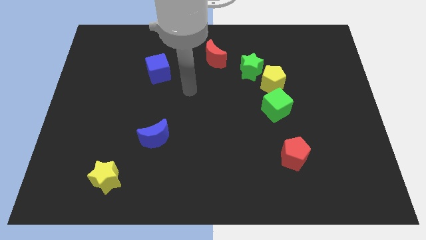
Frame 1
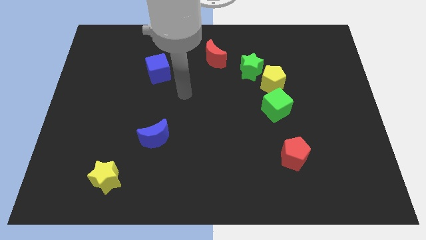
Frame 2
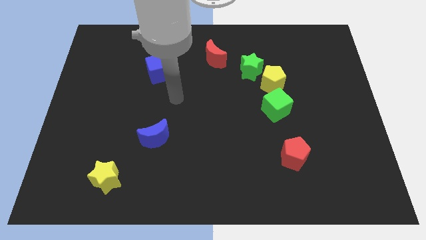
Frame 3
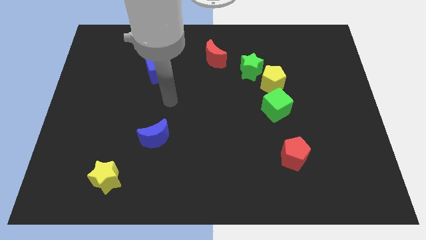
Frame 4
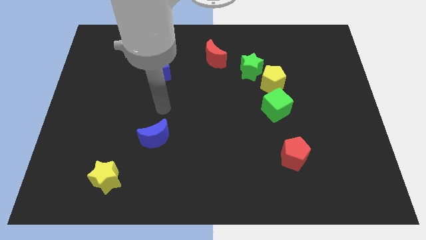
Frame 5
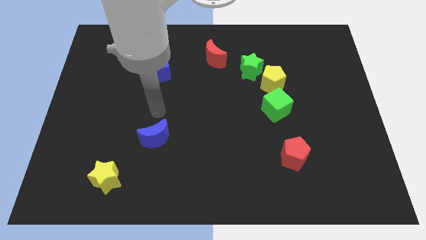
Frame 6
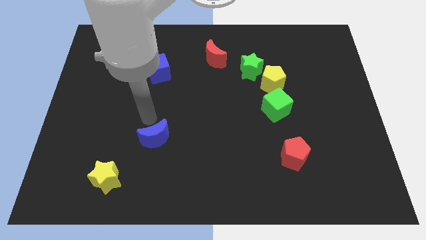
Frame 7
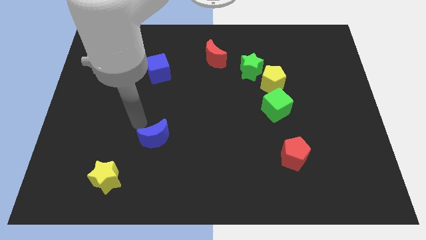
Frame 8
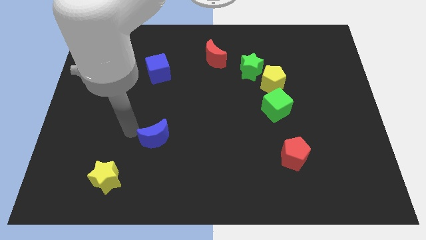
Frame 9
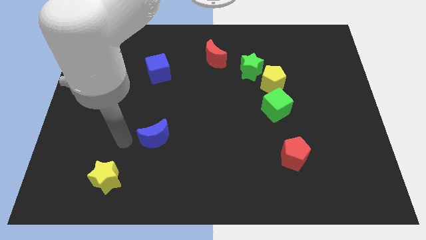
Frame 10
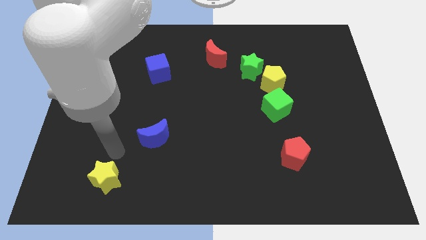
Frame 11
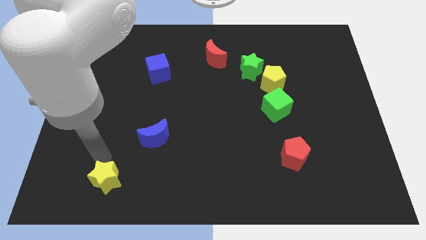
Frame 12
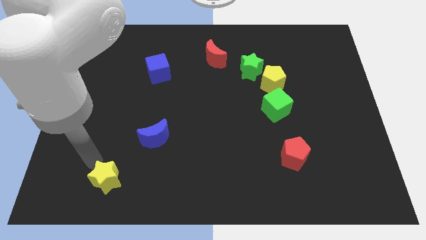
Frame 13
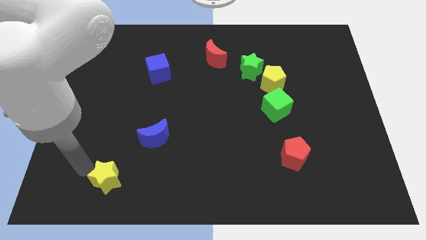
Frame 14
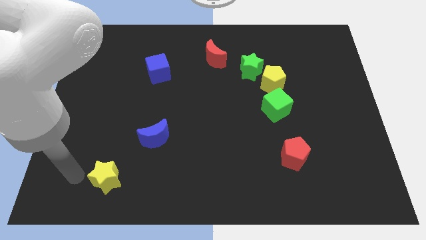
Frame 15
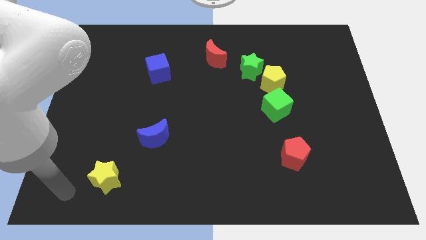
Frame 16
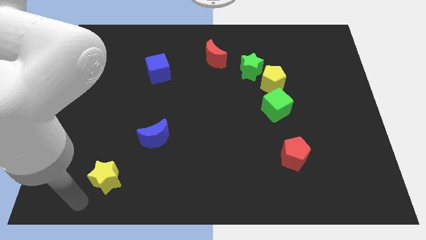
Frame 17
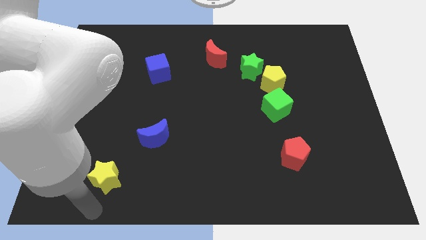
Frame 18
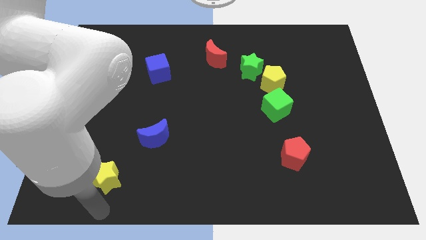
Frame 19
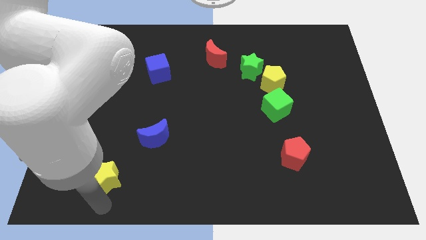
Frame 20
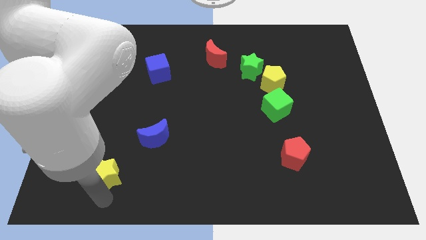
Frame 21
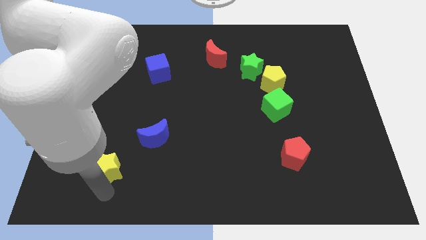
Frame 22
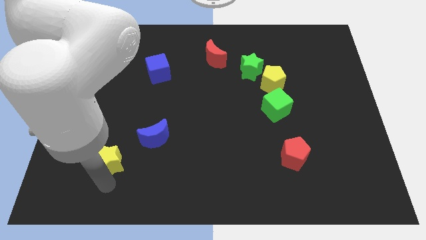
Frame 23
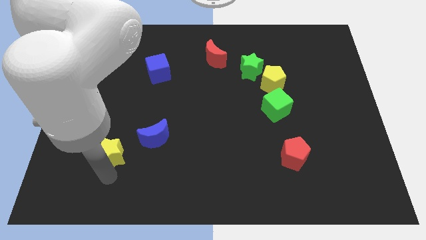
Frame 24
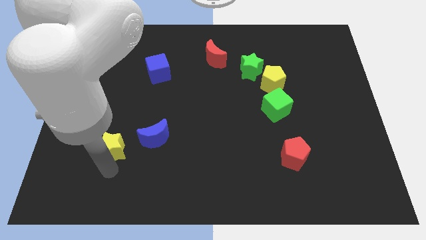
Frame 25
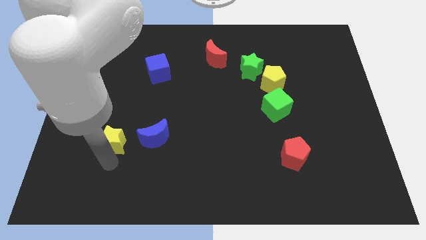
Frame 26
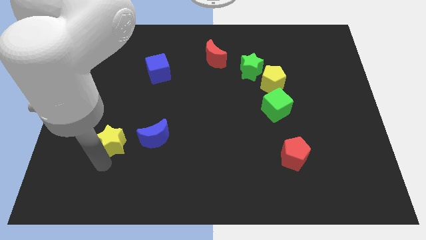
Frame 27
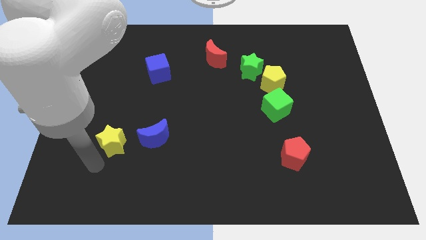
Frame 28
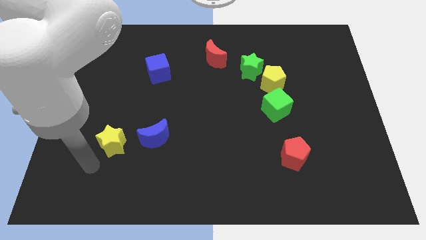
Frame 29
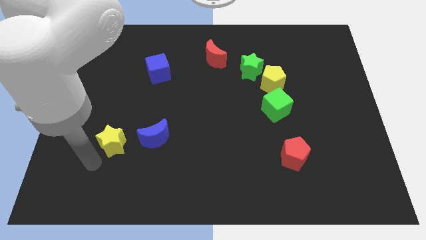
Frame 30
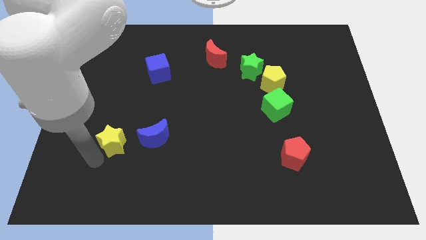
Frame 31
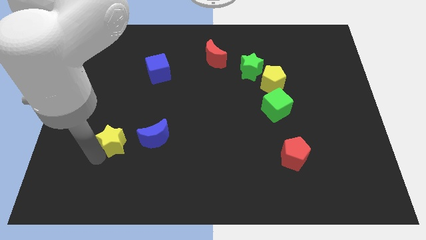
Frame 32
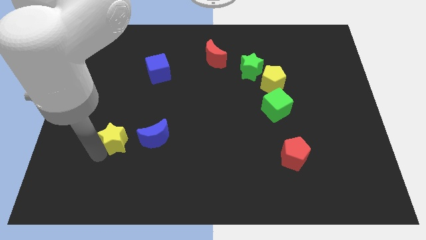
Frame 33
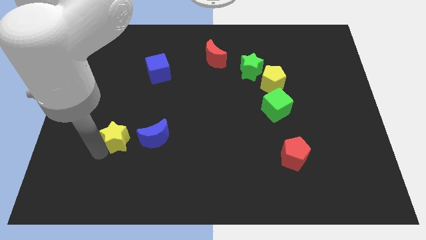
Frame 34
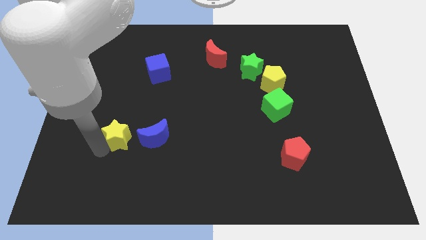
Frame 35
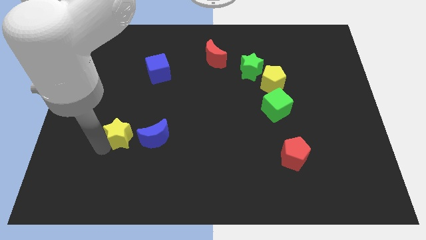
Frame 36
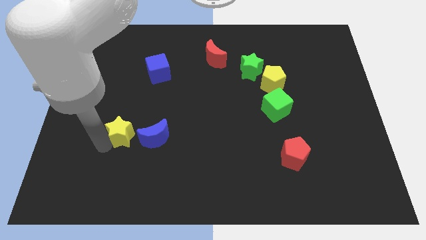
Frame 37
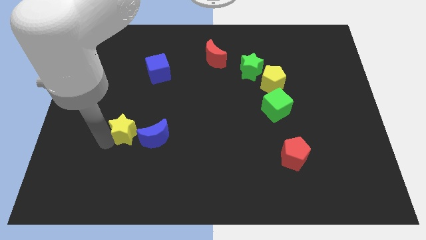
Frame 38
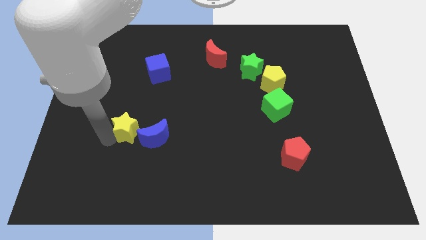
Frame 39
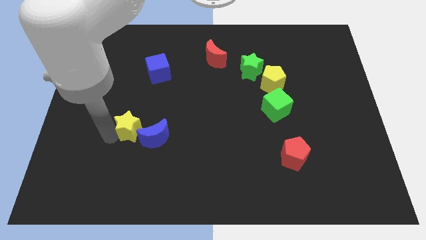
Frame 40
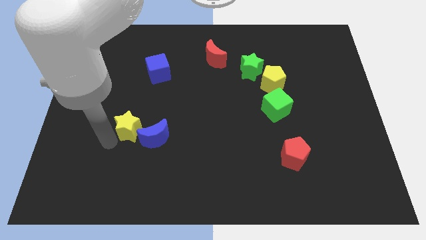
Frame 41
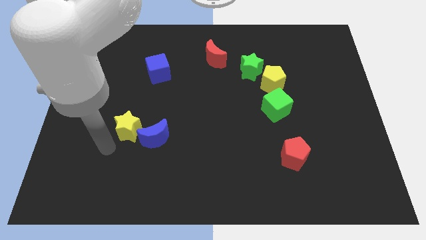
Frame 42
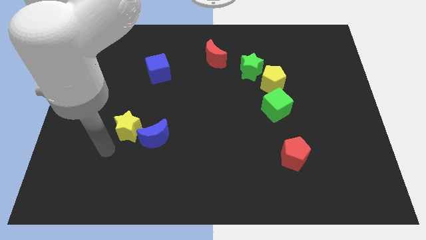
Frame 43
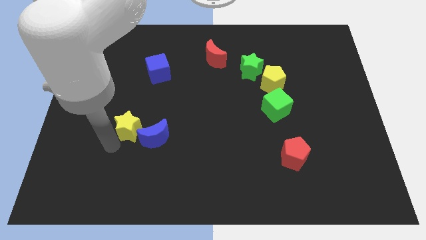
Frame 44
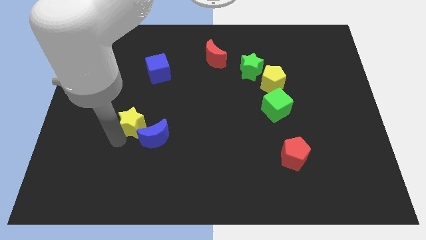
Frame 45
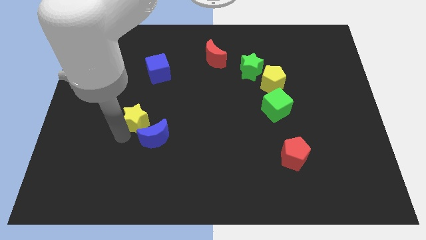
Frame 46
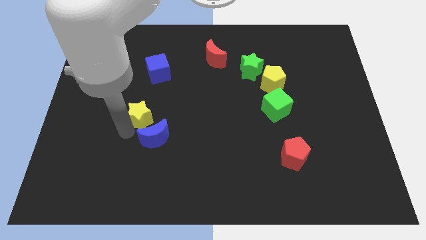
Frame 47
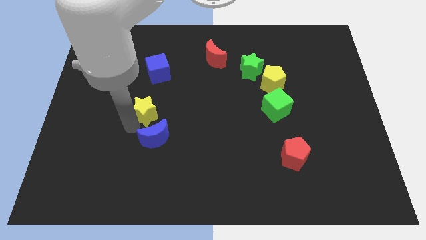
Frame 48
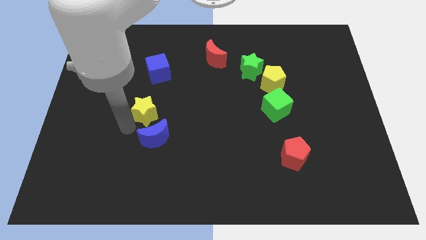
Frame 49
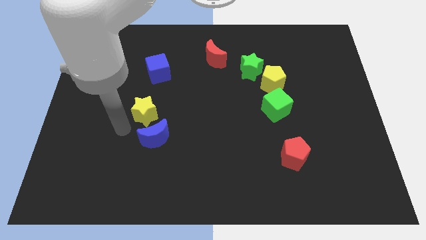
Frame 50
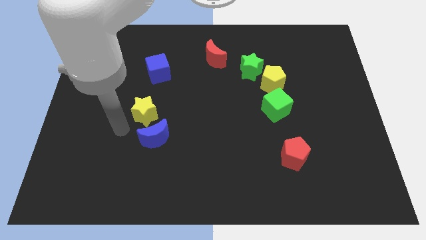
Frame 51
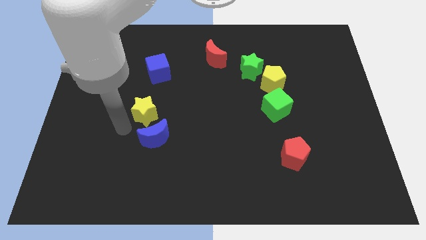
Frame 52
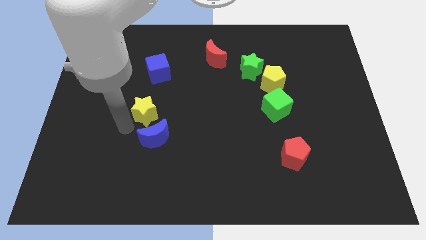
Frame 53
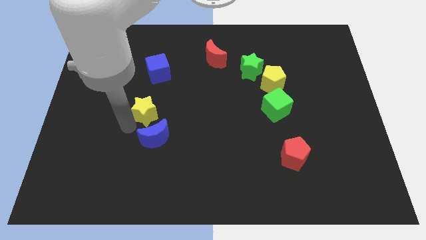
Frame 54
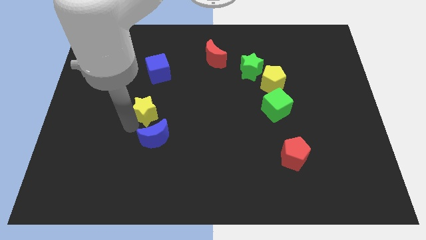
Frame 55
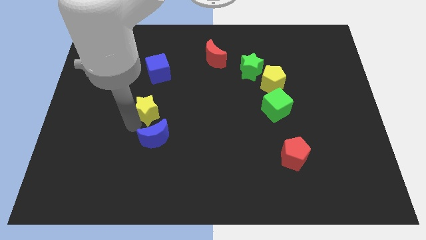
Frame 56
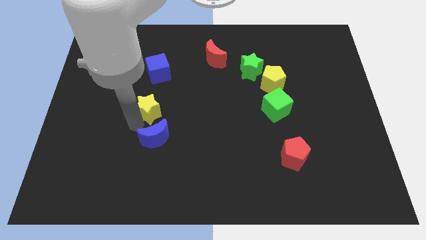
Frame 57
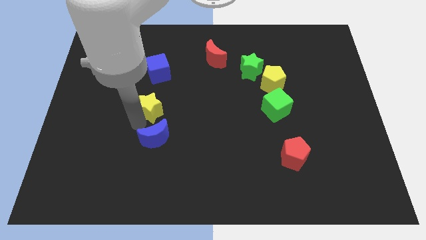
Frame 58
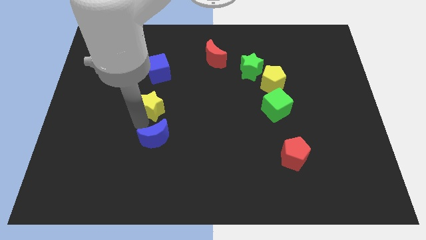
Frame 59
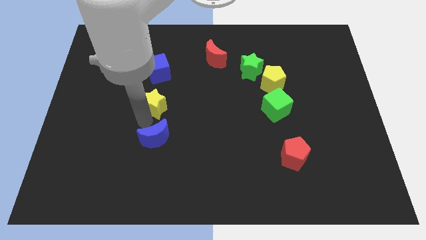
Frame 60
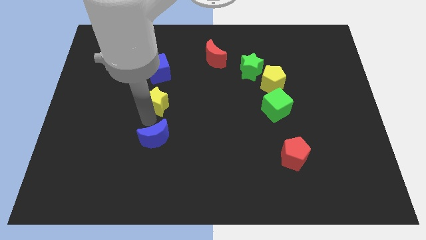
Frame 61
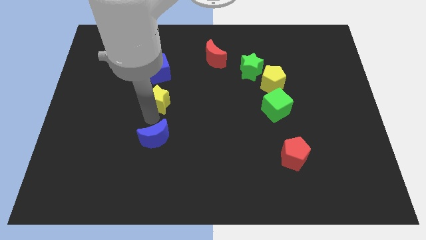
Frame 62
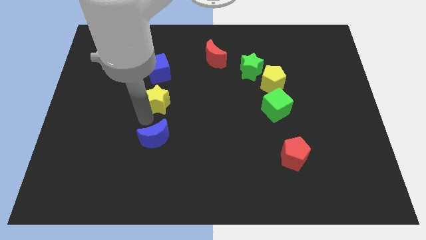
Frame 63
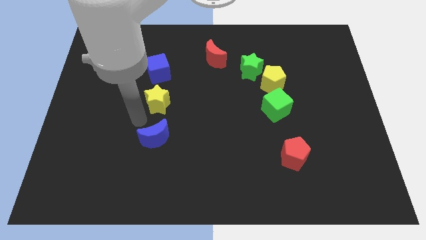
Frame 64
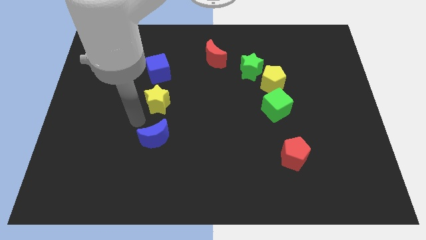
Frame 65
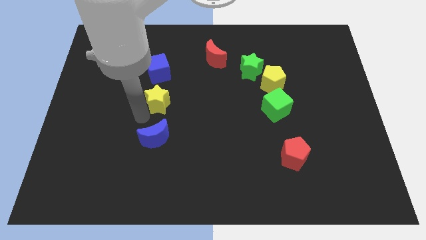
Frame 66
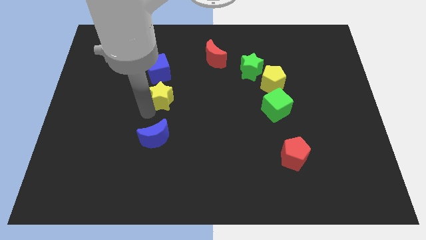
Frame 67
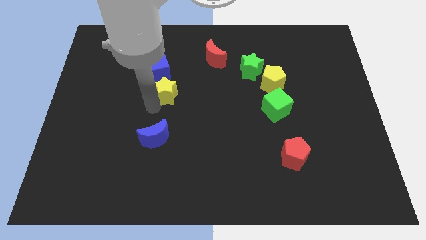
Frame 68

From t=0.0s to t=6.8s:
slide the yellow star to the bottom right side of the blue cube

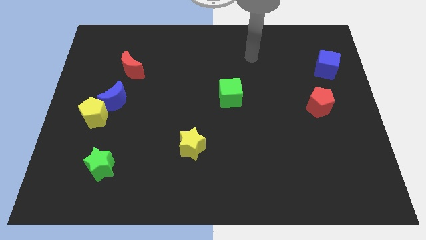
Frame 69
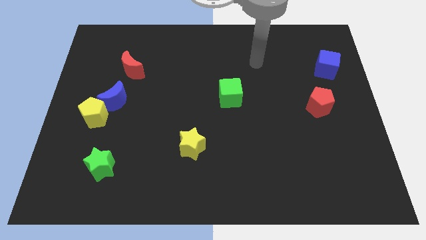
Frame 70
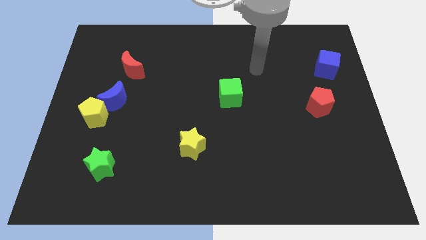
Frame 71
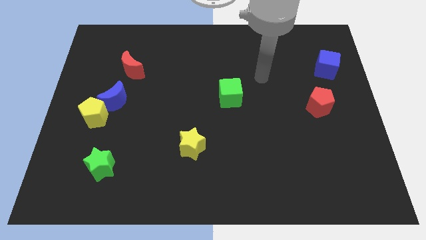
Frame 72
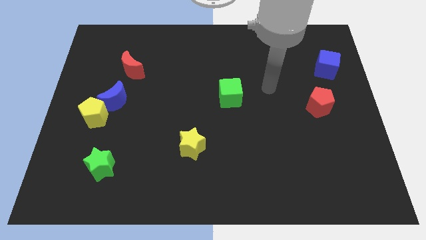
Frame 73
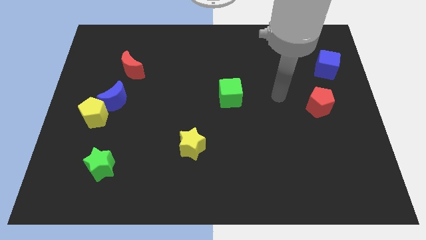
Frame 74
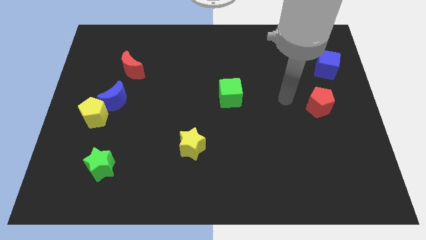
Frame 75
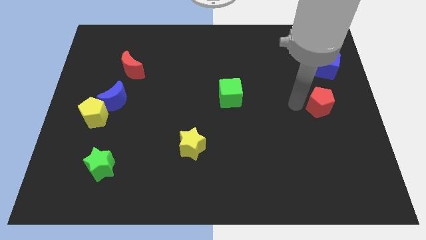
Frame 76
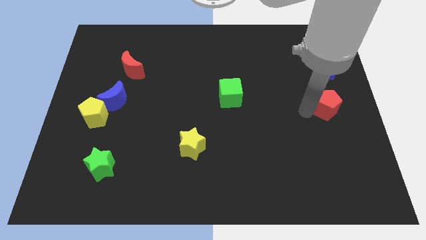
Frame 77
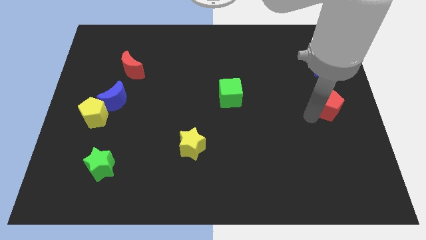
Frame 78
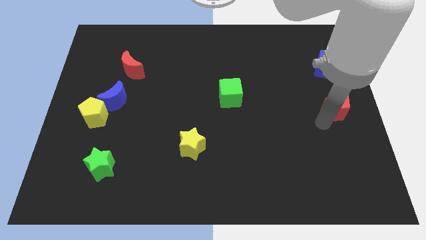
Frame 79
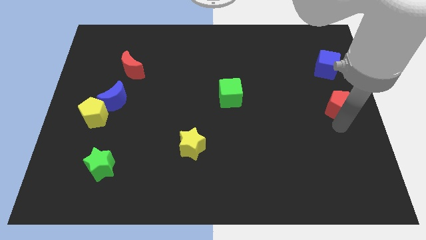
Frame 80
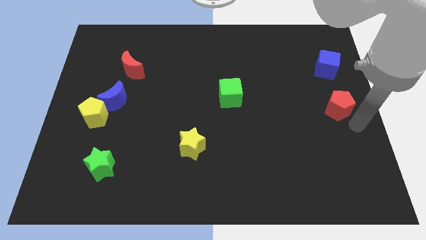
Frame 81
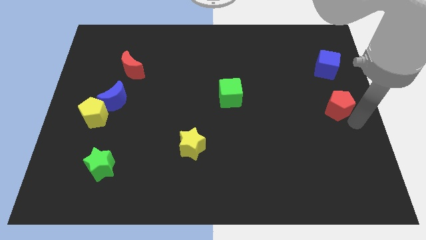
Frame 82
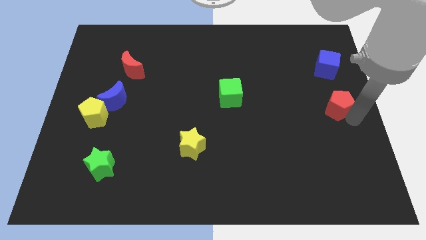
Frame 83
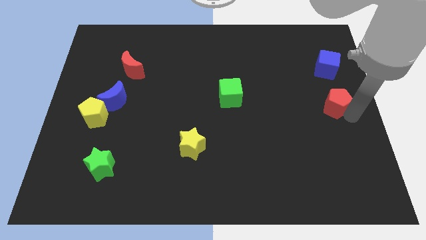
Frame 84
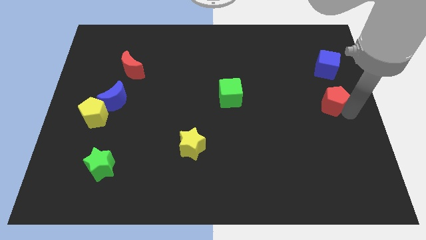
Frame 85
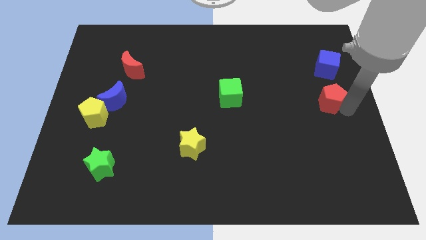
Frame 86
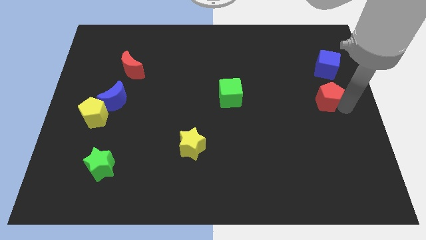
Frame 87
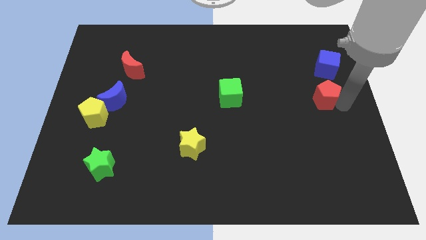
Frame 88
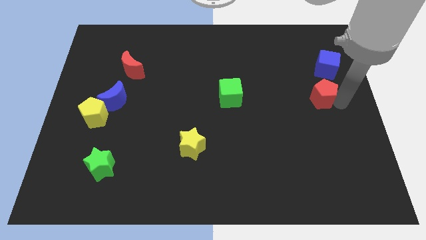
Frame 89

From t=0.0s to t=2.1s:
push the red pentagon diagonally down and to the left of the blue cube
